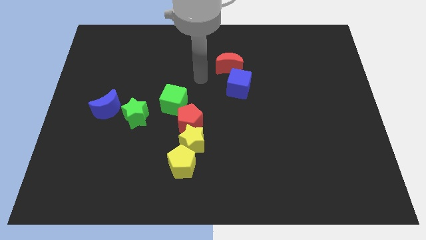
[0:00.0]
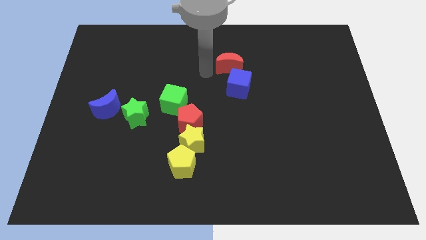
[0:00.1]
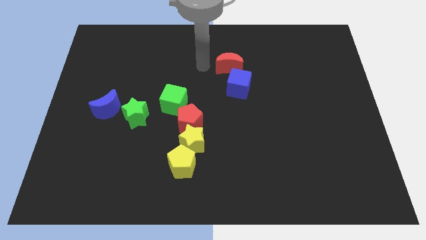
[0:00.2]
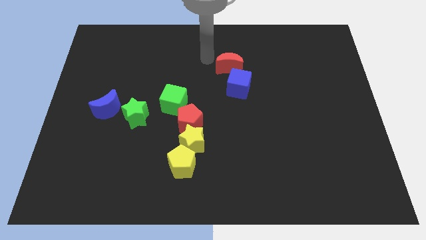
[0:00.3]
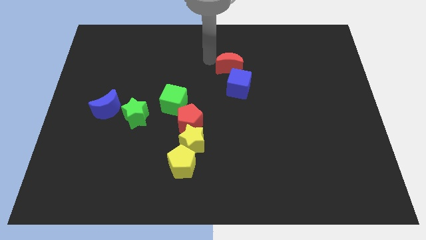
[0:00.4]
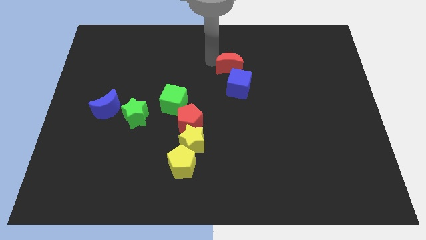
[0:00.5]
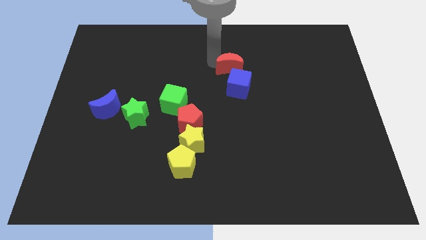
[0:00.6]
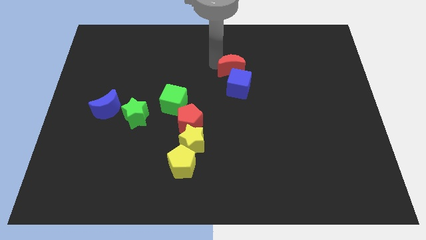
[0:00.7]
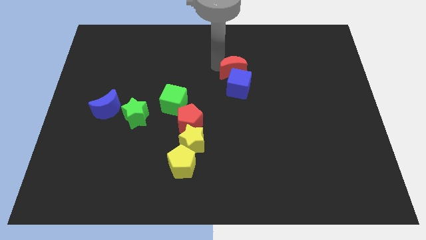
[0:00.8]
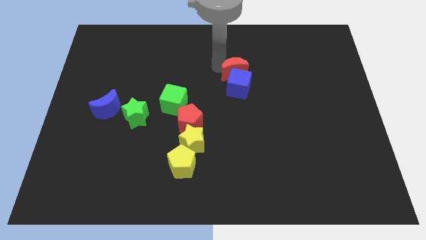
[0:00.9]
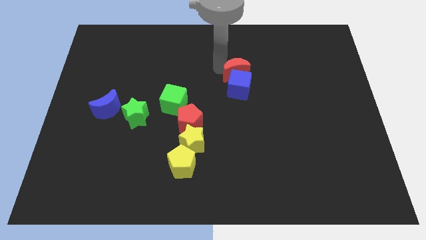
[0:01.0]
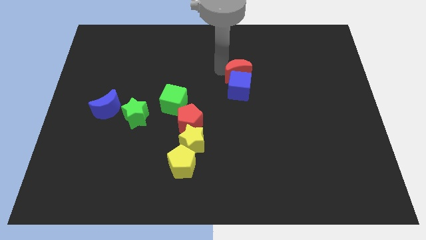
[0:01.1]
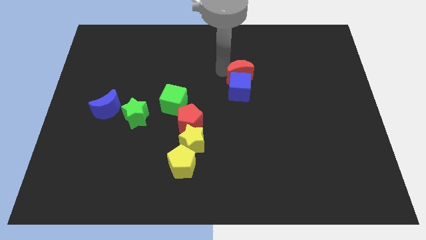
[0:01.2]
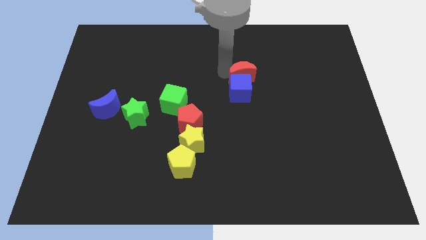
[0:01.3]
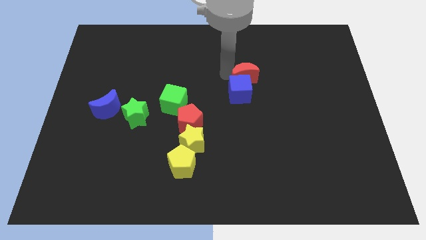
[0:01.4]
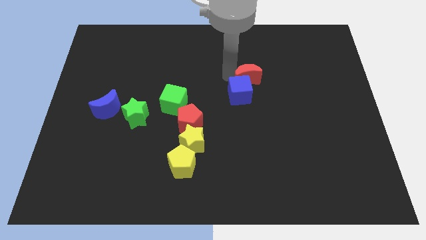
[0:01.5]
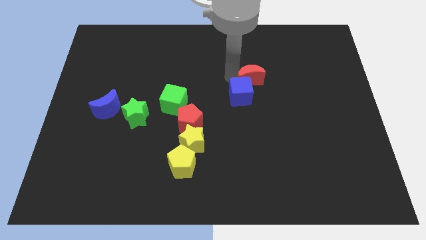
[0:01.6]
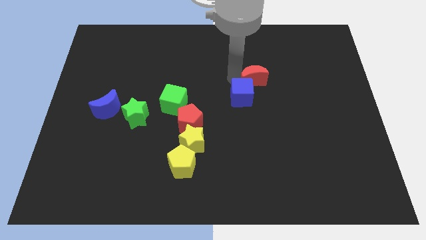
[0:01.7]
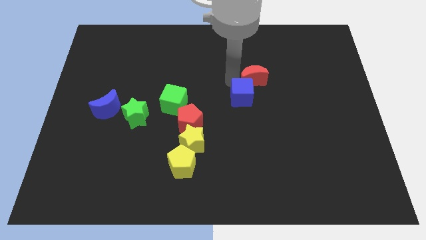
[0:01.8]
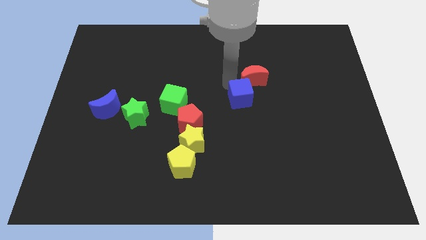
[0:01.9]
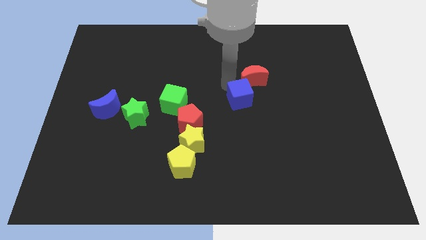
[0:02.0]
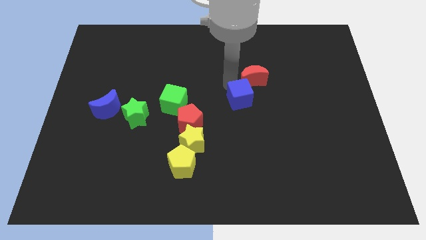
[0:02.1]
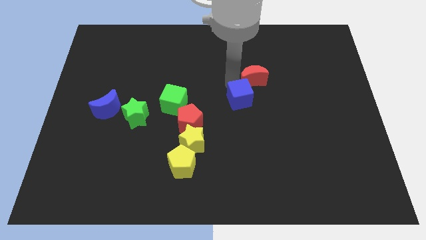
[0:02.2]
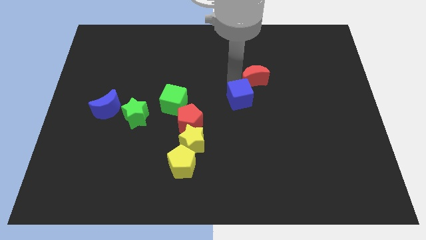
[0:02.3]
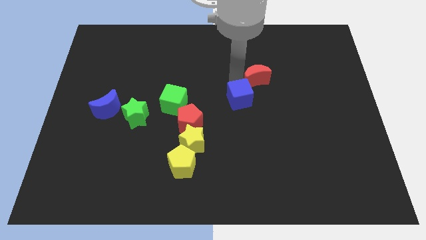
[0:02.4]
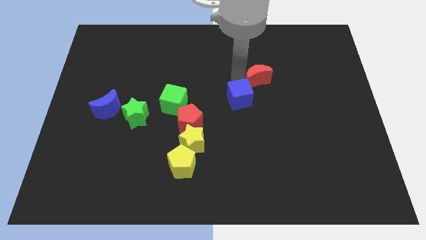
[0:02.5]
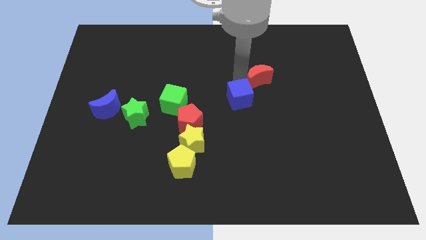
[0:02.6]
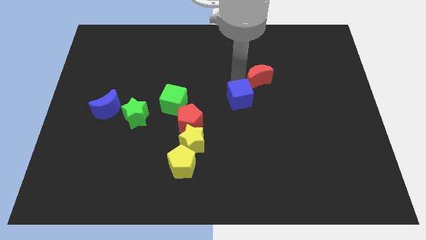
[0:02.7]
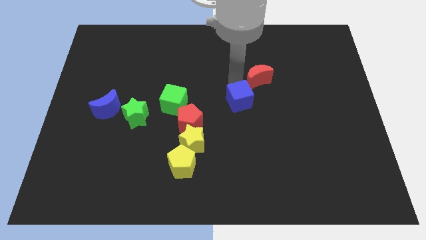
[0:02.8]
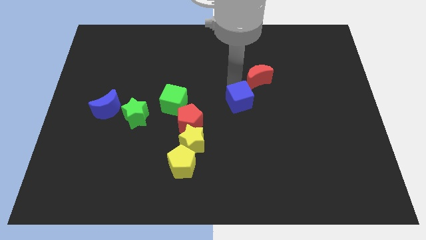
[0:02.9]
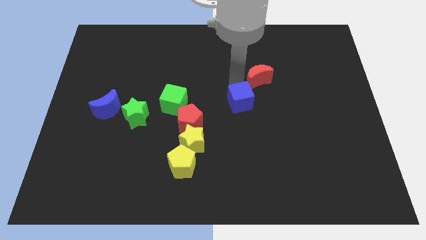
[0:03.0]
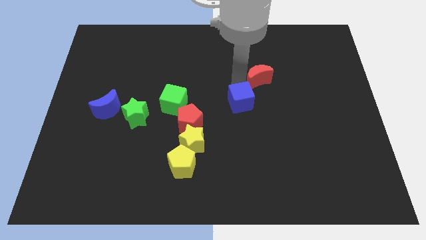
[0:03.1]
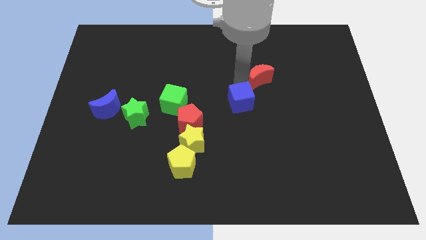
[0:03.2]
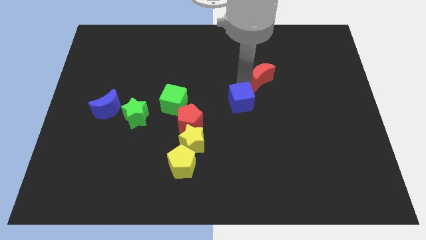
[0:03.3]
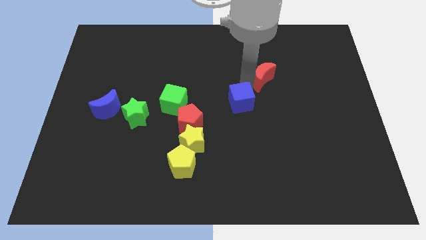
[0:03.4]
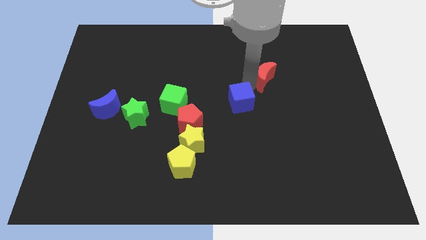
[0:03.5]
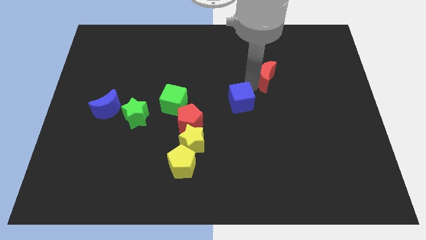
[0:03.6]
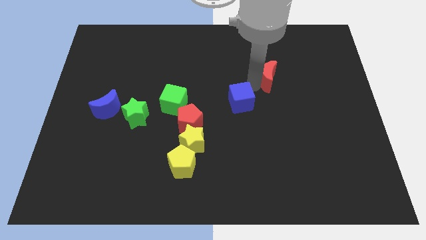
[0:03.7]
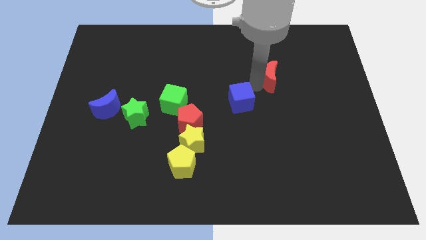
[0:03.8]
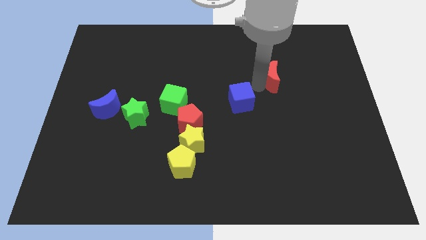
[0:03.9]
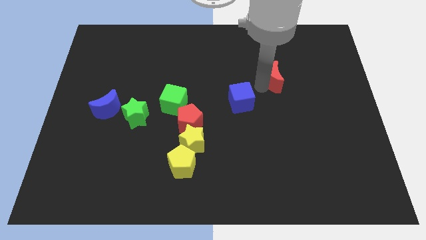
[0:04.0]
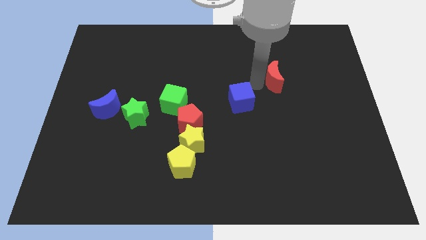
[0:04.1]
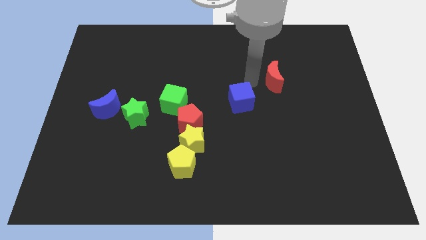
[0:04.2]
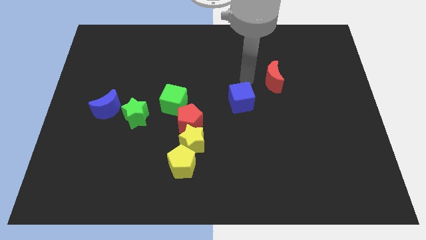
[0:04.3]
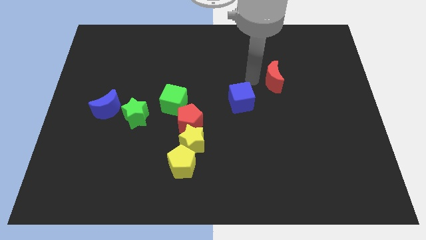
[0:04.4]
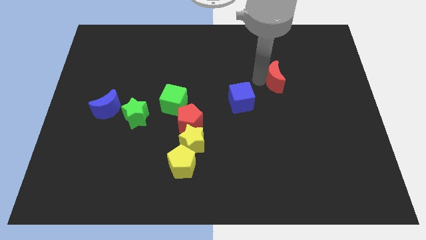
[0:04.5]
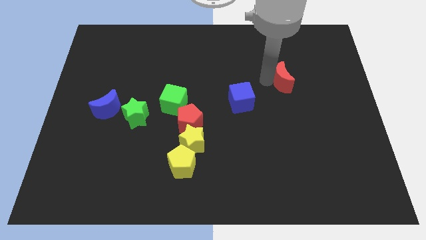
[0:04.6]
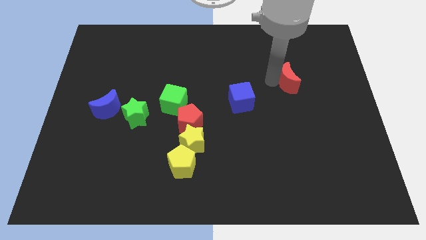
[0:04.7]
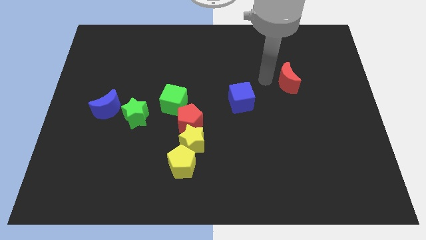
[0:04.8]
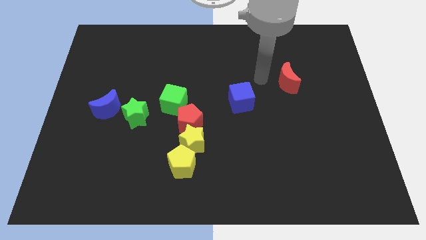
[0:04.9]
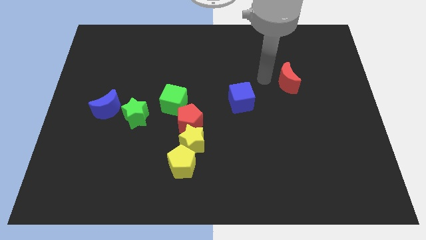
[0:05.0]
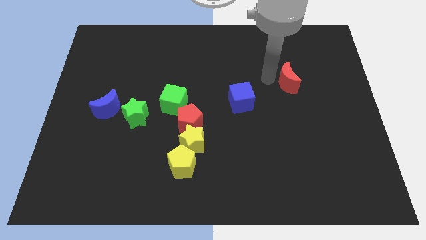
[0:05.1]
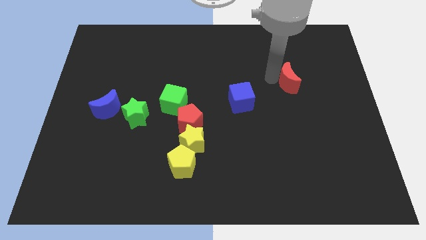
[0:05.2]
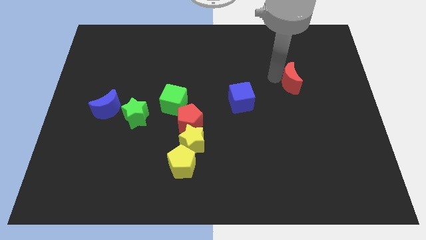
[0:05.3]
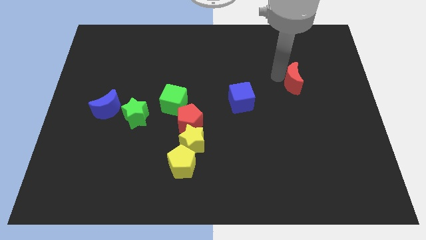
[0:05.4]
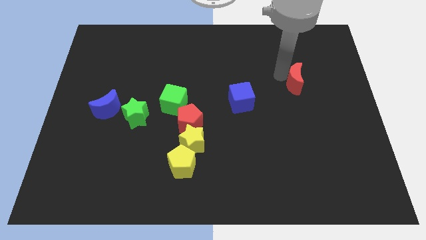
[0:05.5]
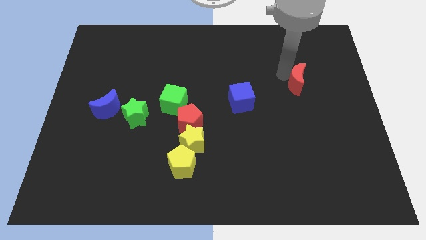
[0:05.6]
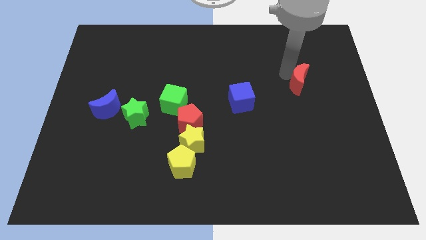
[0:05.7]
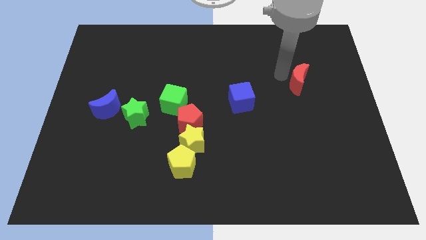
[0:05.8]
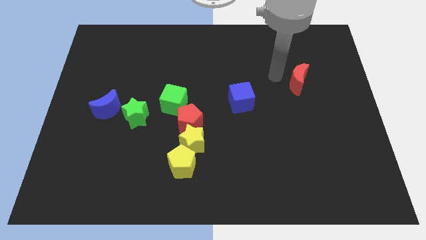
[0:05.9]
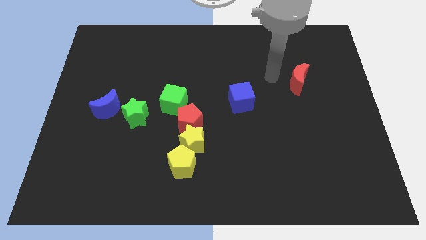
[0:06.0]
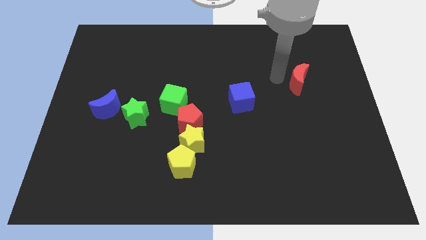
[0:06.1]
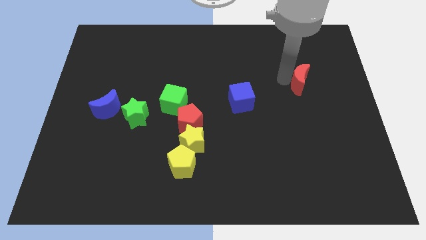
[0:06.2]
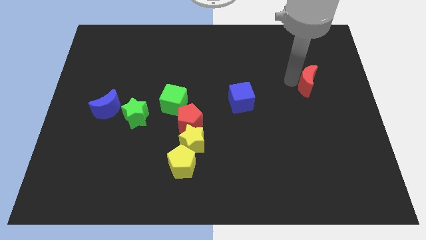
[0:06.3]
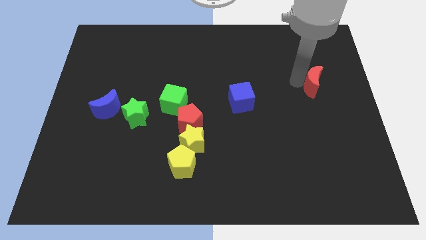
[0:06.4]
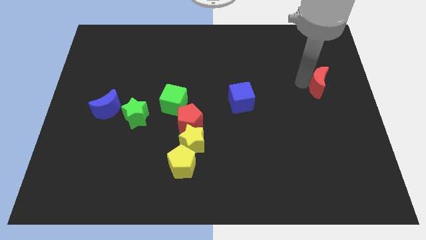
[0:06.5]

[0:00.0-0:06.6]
put the red moon to the right side of the board
